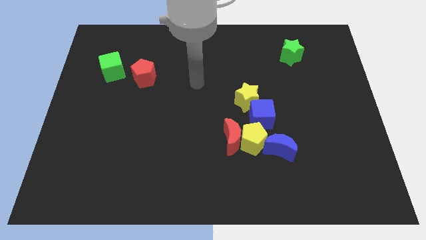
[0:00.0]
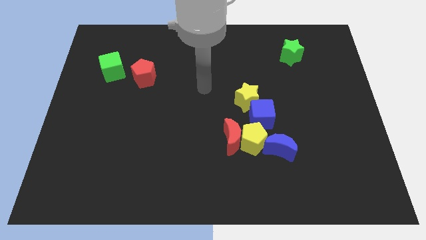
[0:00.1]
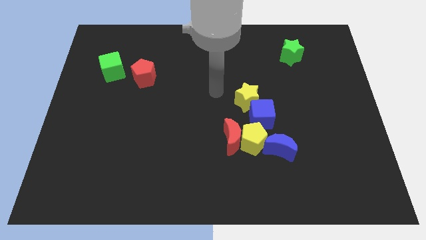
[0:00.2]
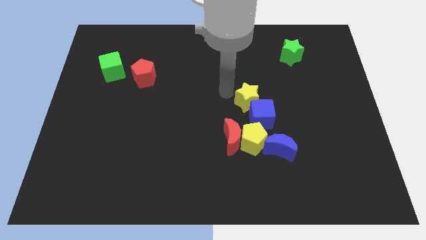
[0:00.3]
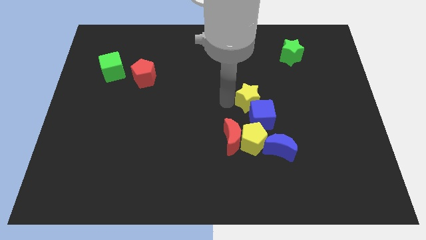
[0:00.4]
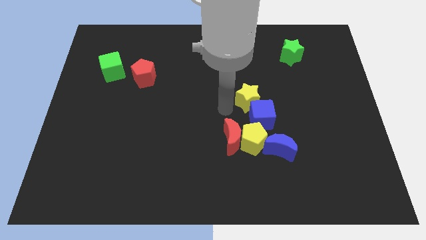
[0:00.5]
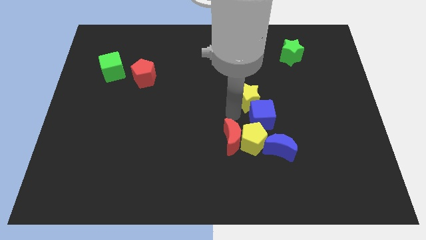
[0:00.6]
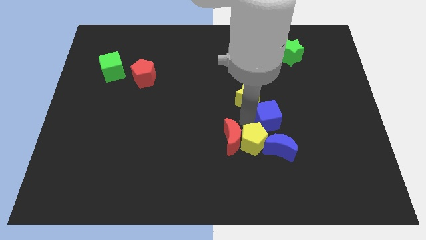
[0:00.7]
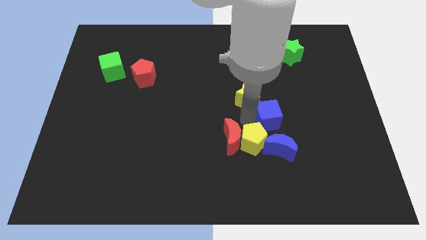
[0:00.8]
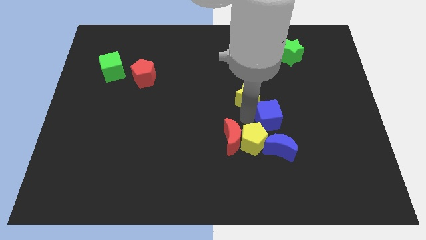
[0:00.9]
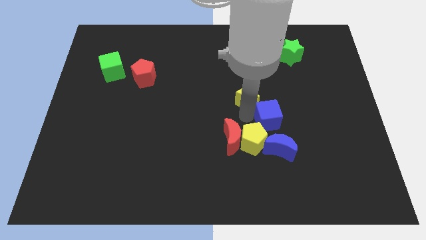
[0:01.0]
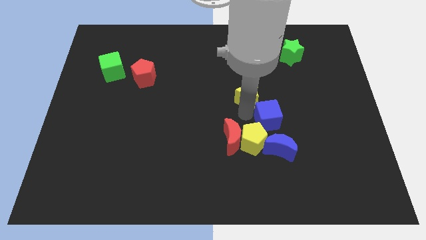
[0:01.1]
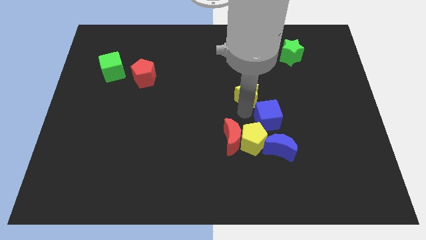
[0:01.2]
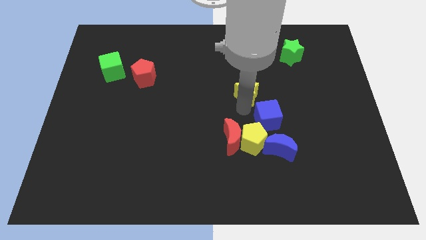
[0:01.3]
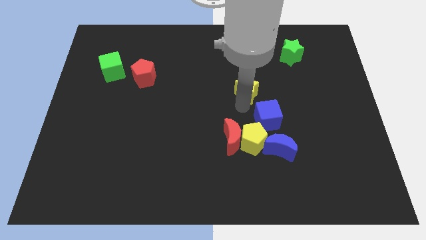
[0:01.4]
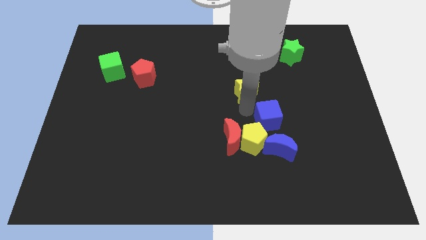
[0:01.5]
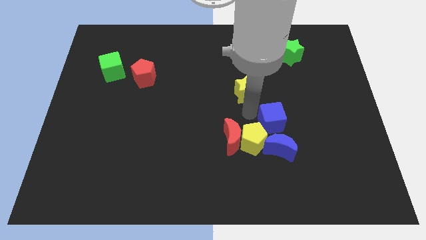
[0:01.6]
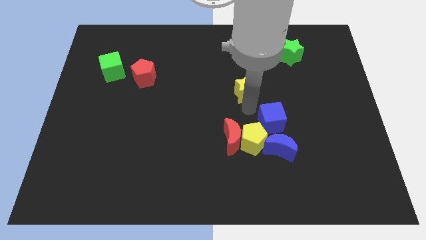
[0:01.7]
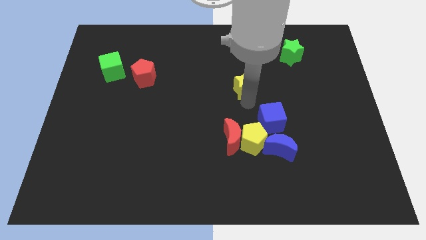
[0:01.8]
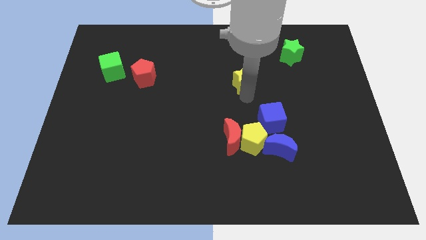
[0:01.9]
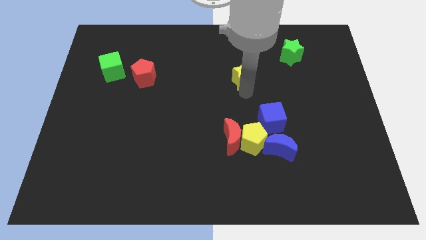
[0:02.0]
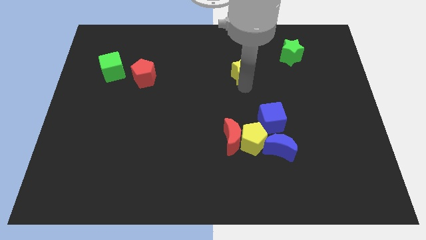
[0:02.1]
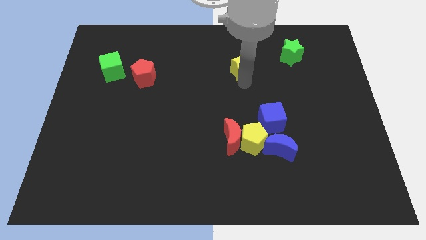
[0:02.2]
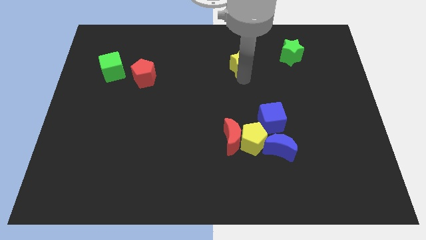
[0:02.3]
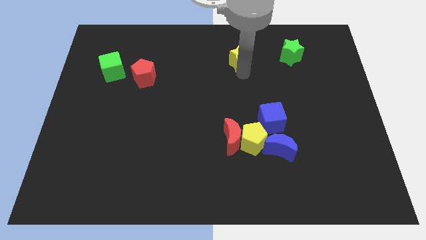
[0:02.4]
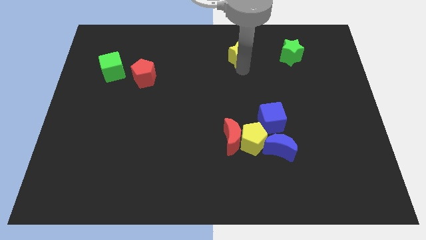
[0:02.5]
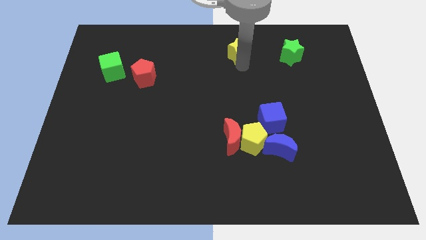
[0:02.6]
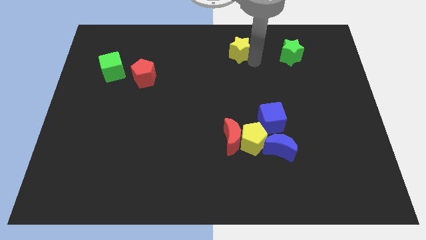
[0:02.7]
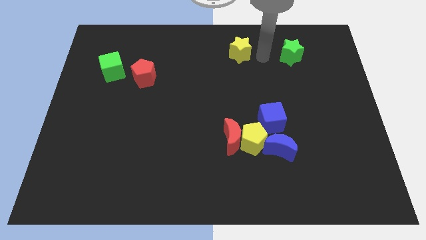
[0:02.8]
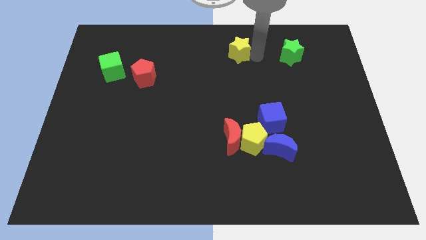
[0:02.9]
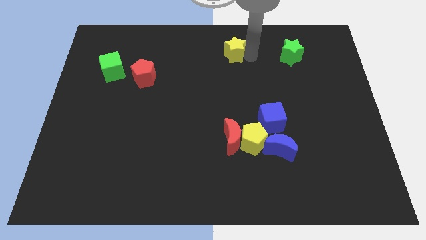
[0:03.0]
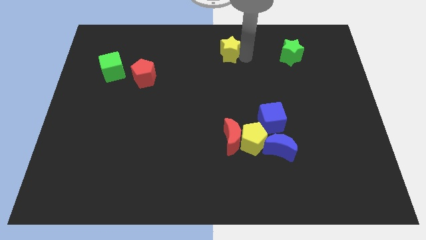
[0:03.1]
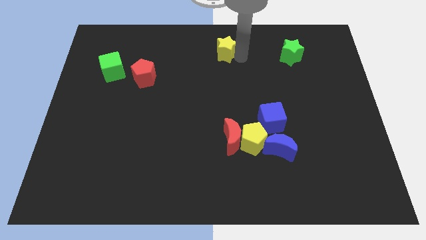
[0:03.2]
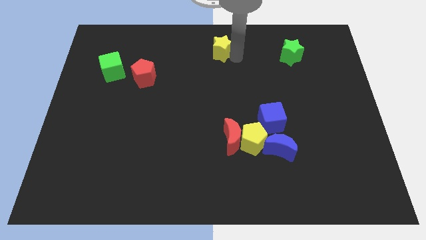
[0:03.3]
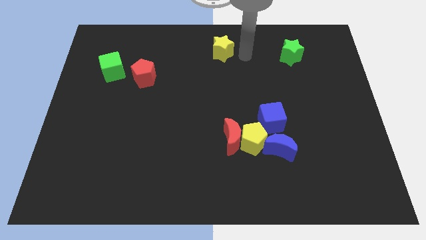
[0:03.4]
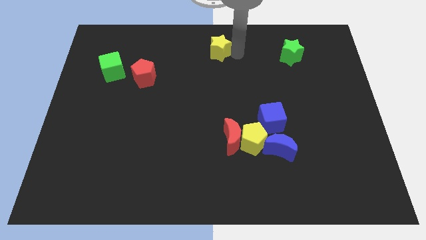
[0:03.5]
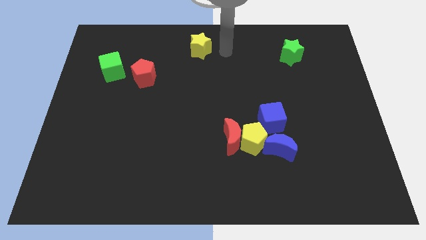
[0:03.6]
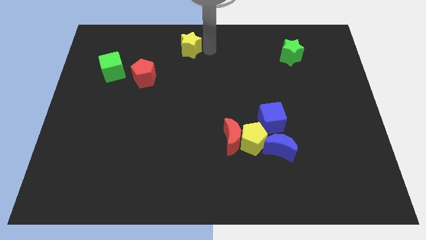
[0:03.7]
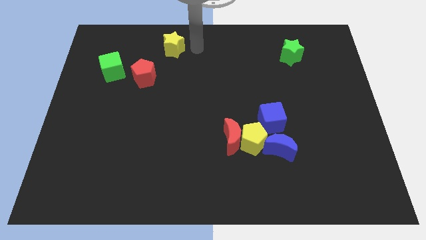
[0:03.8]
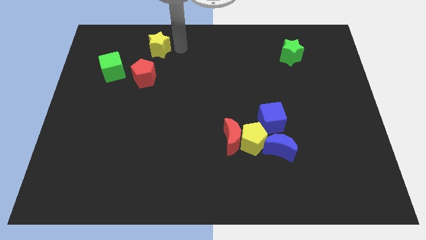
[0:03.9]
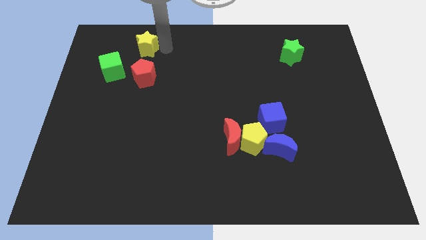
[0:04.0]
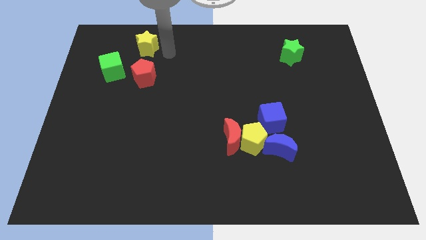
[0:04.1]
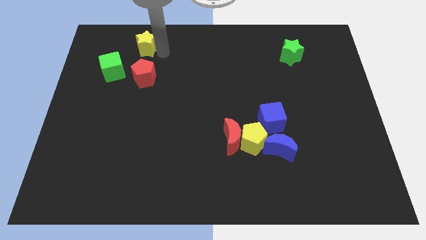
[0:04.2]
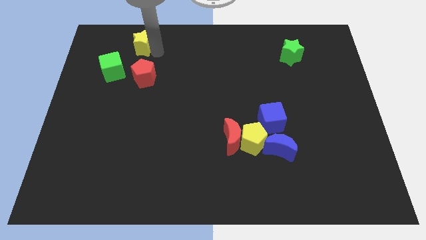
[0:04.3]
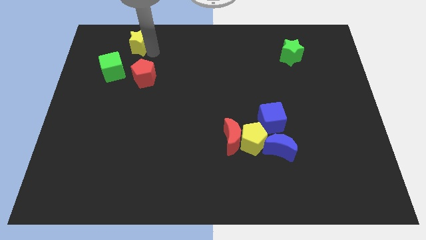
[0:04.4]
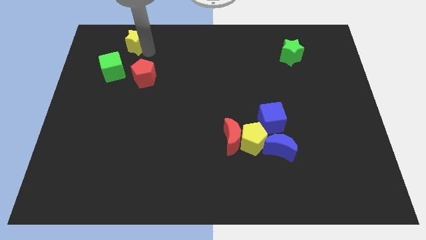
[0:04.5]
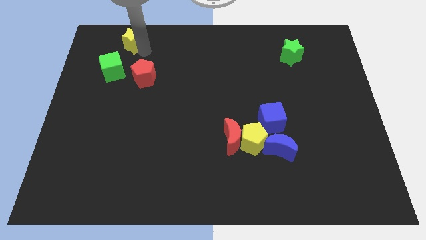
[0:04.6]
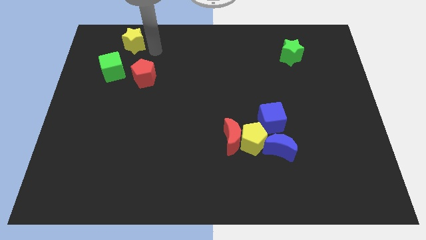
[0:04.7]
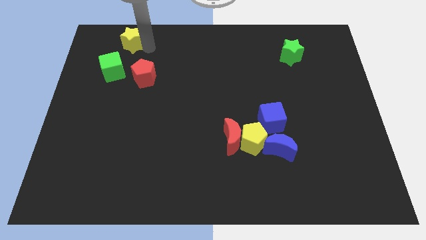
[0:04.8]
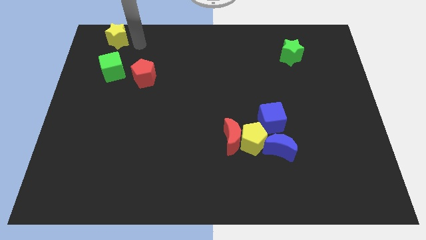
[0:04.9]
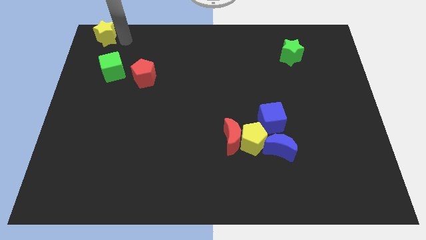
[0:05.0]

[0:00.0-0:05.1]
move the yellow star to the top left of the board

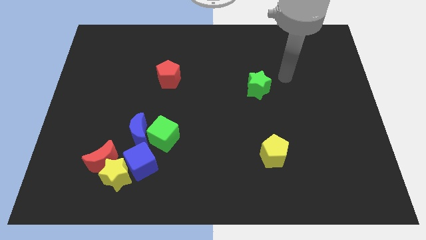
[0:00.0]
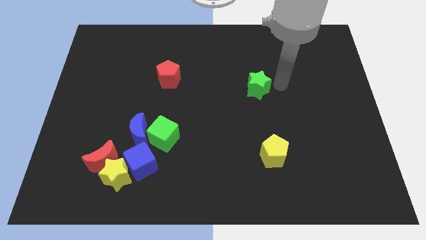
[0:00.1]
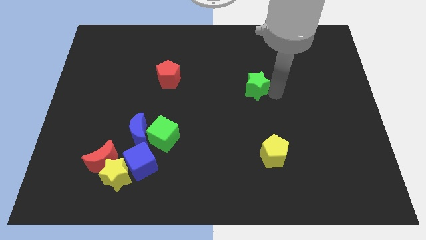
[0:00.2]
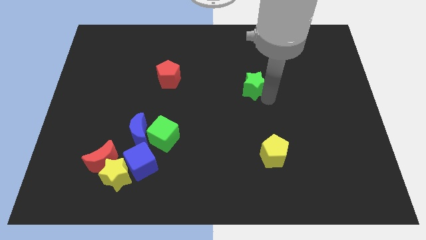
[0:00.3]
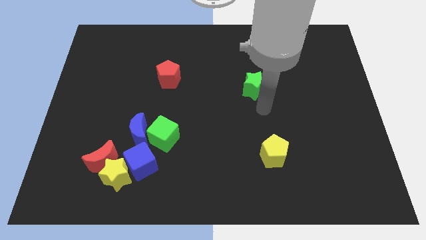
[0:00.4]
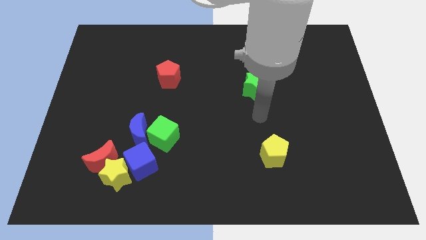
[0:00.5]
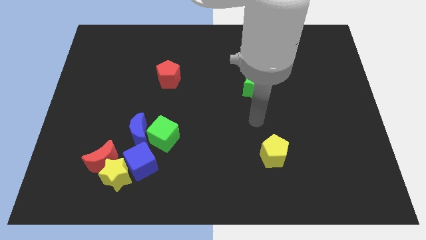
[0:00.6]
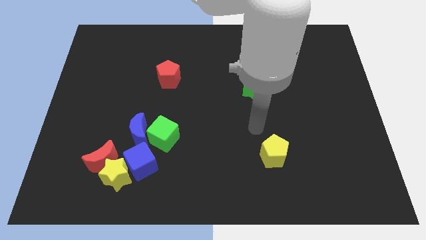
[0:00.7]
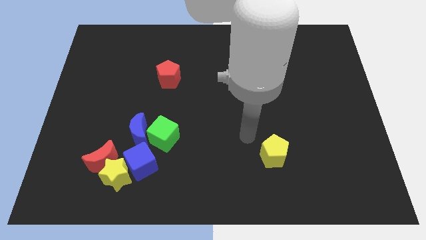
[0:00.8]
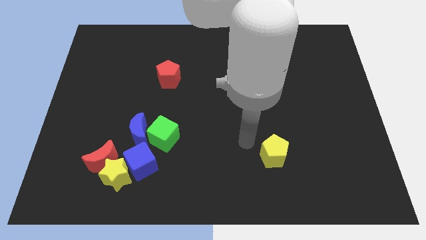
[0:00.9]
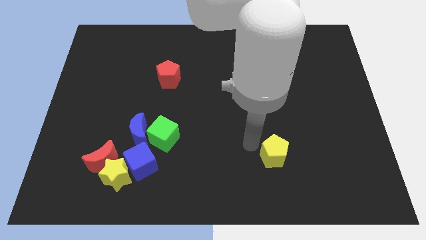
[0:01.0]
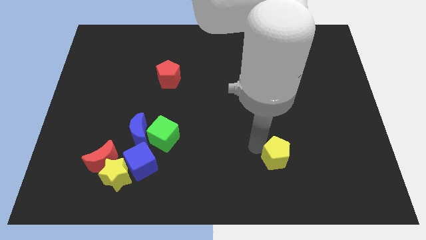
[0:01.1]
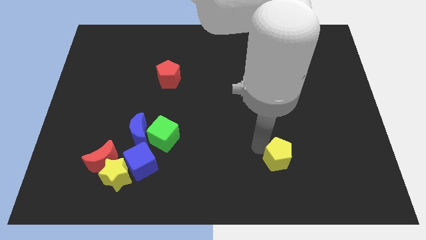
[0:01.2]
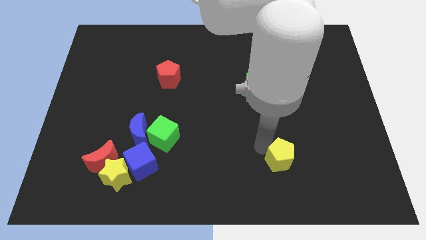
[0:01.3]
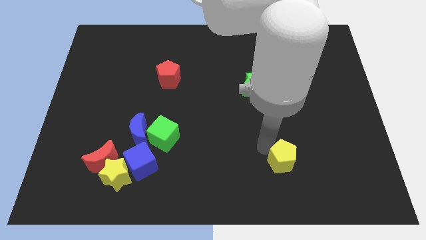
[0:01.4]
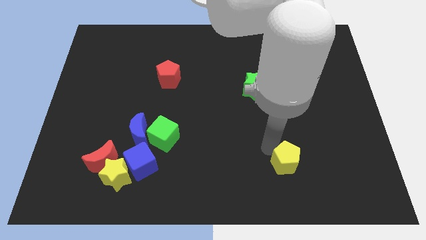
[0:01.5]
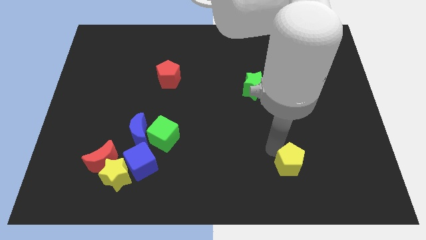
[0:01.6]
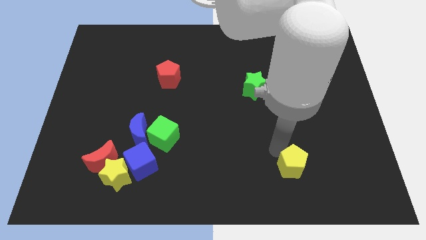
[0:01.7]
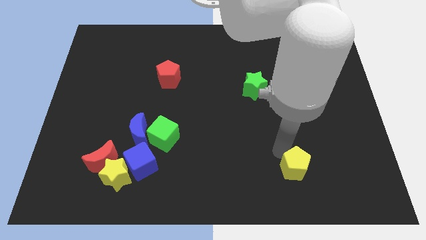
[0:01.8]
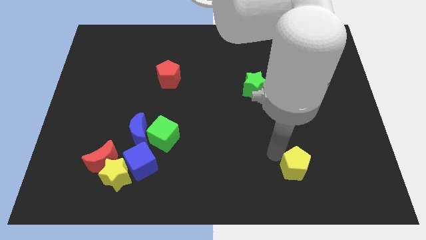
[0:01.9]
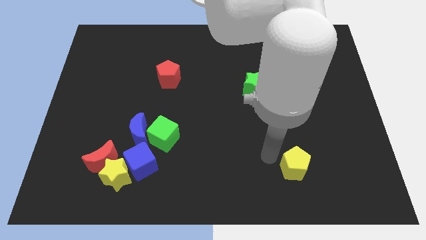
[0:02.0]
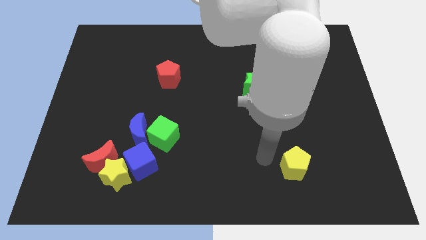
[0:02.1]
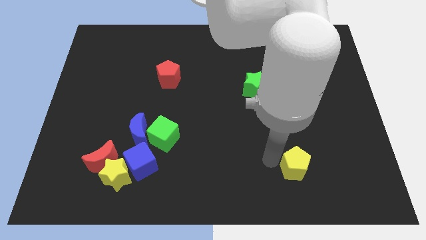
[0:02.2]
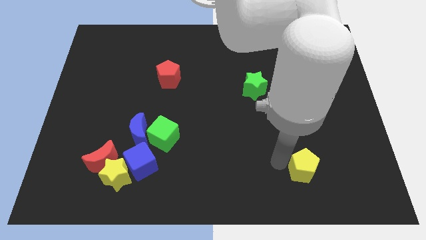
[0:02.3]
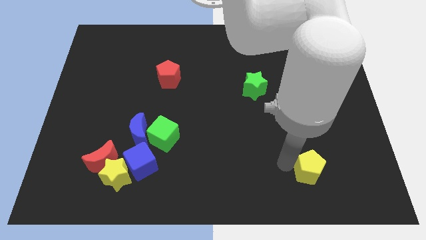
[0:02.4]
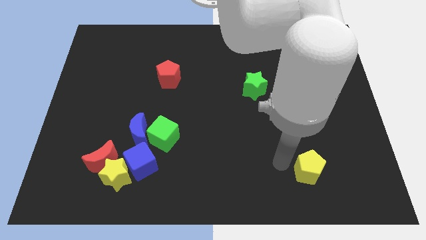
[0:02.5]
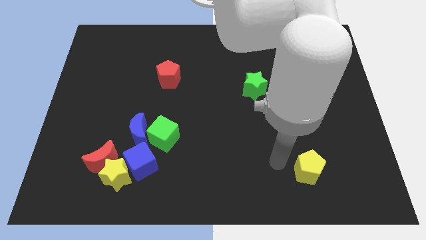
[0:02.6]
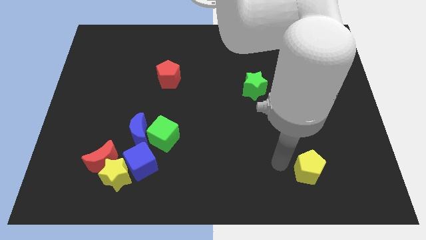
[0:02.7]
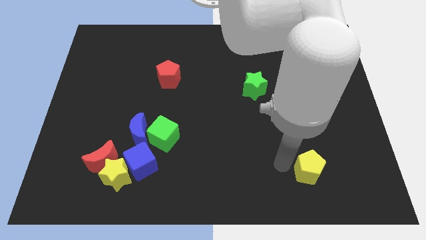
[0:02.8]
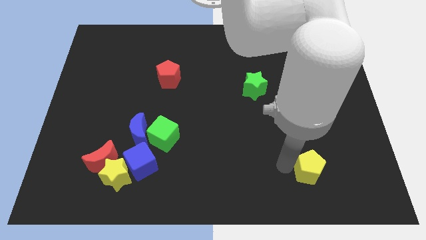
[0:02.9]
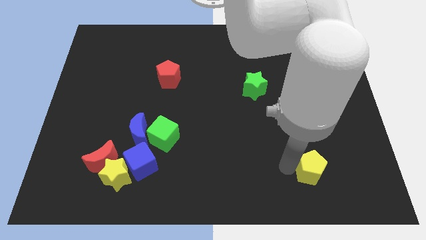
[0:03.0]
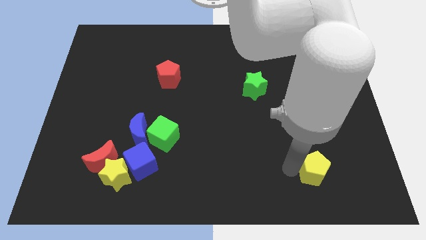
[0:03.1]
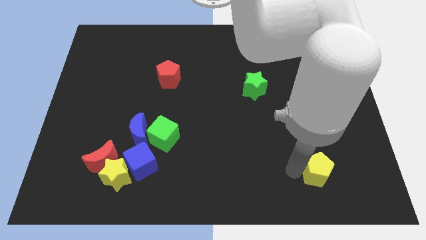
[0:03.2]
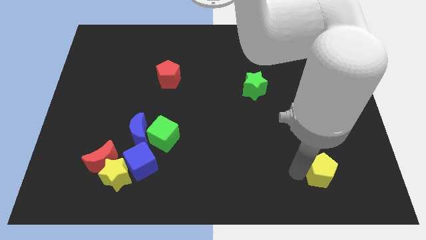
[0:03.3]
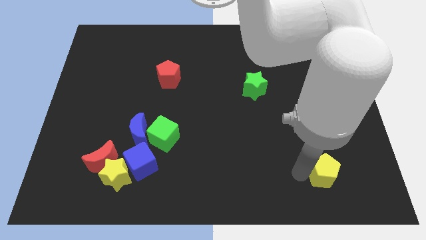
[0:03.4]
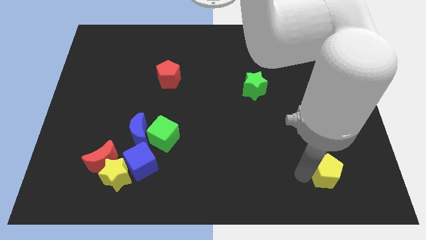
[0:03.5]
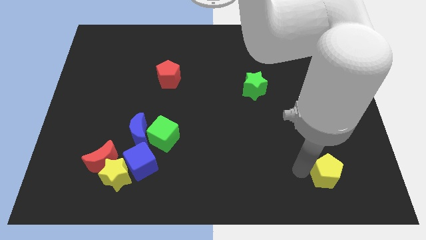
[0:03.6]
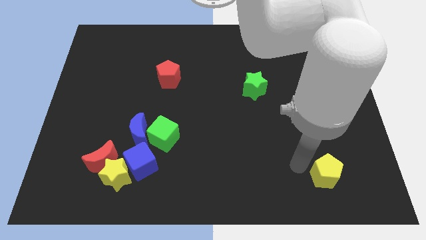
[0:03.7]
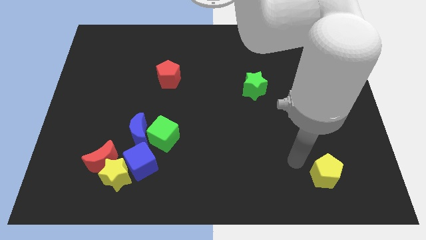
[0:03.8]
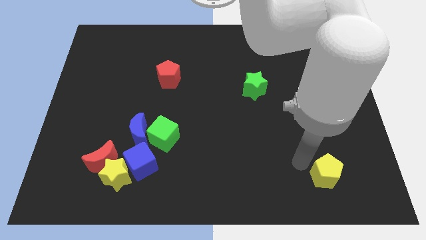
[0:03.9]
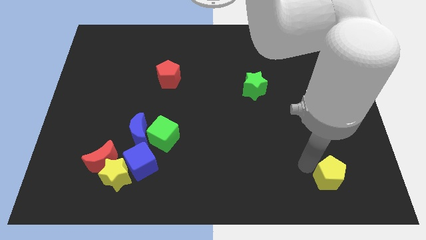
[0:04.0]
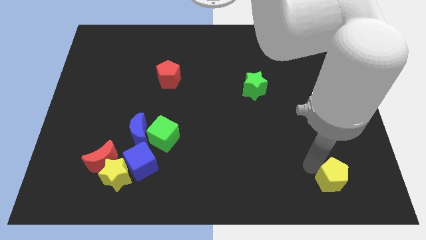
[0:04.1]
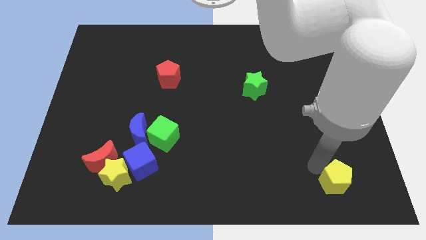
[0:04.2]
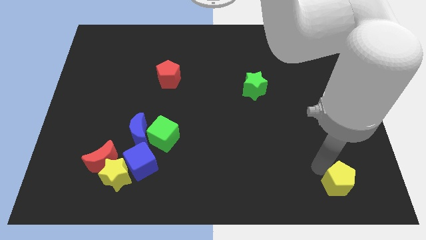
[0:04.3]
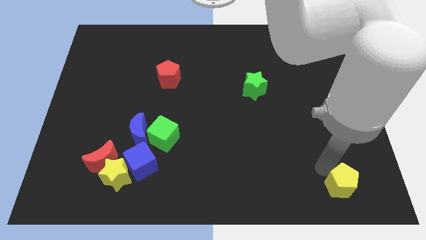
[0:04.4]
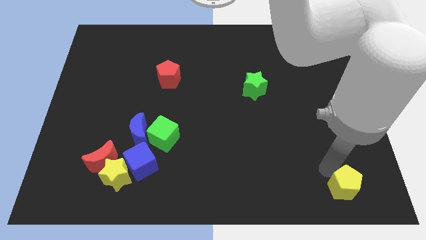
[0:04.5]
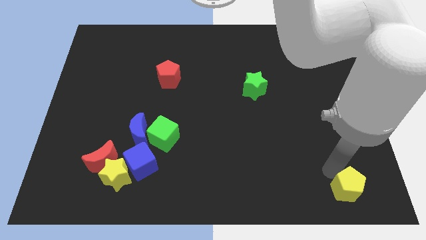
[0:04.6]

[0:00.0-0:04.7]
slide the yellow pentagon to the bottom right of the board
